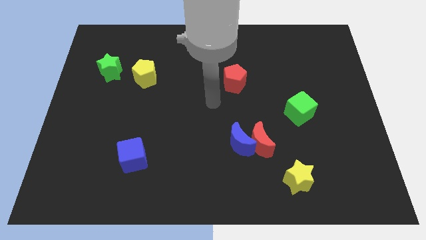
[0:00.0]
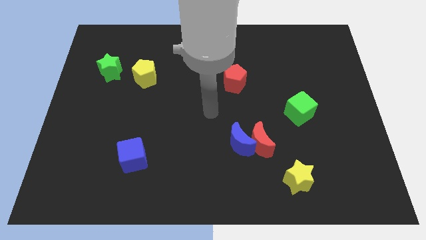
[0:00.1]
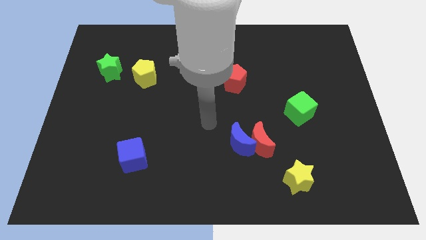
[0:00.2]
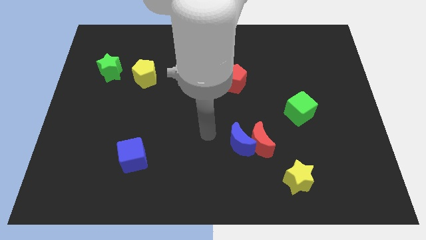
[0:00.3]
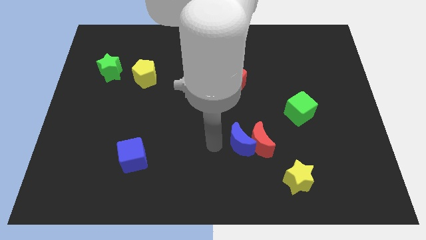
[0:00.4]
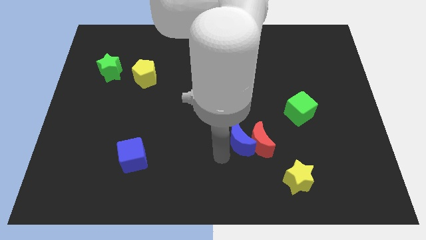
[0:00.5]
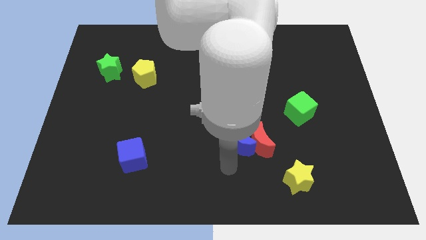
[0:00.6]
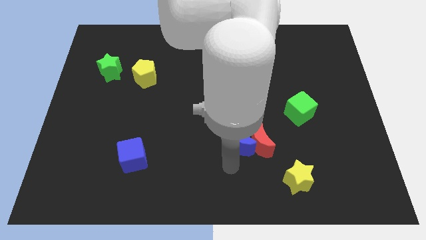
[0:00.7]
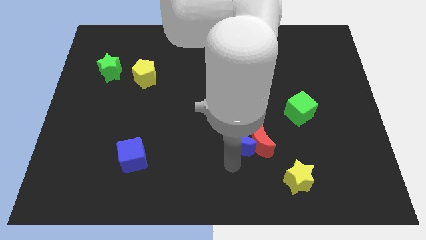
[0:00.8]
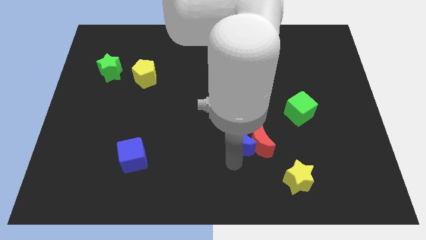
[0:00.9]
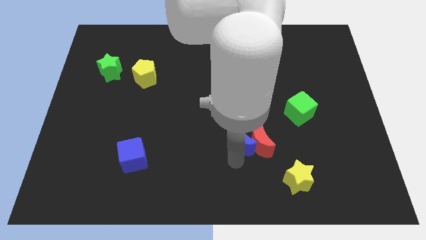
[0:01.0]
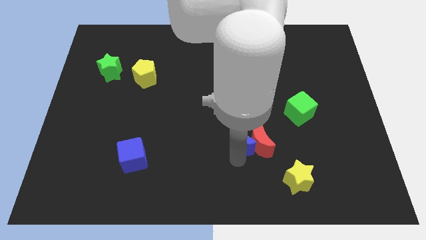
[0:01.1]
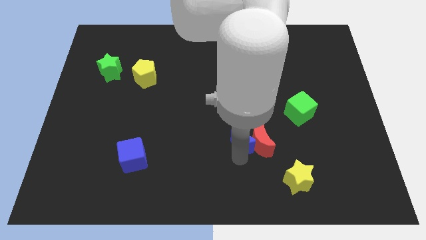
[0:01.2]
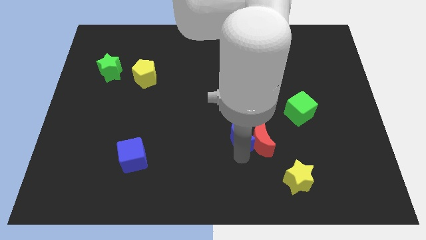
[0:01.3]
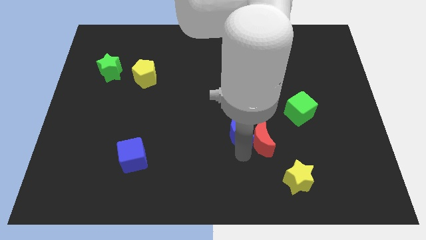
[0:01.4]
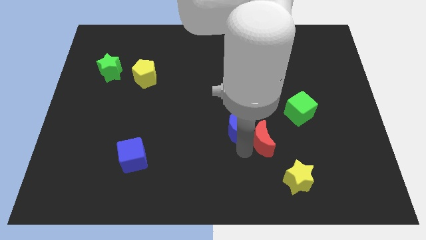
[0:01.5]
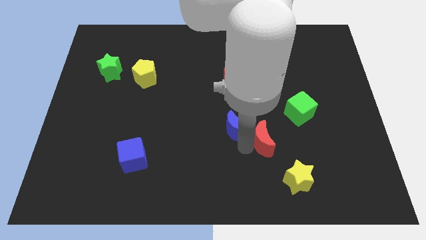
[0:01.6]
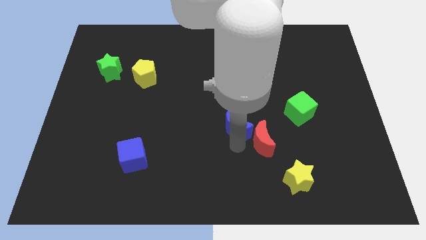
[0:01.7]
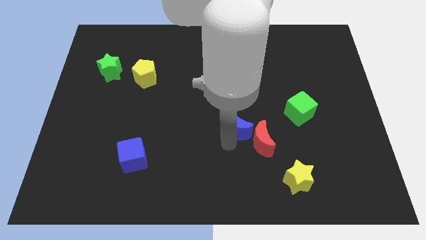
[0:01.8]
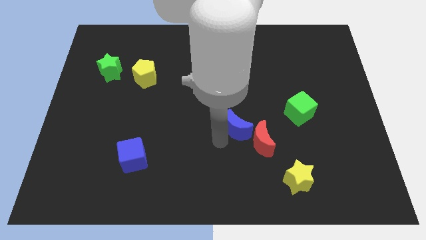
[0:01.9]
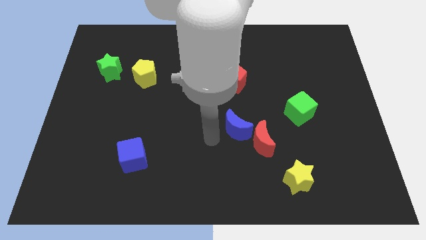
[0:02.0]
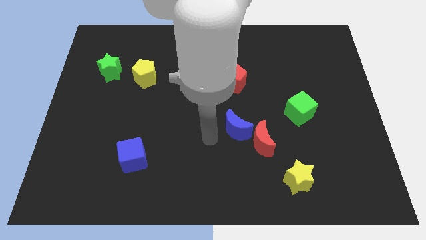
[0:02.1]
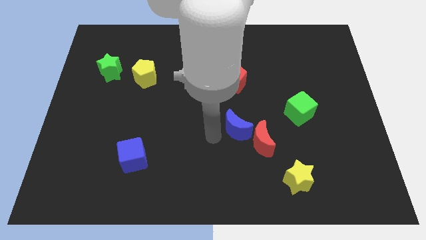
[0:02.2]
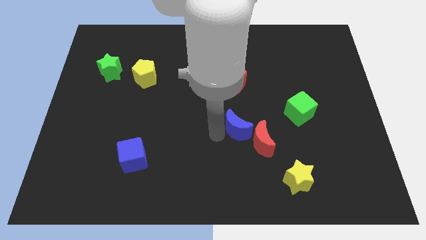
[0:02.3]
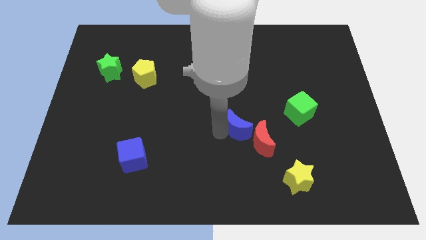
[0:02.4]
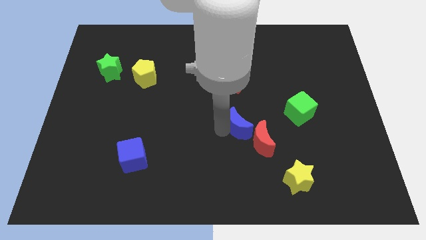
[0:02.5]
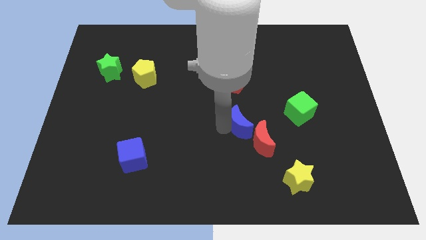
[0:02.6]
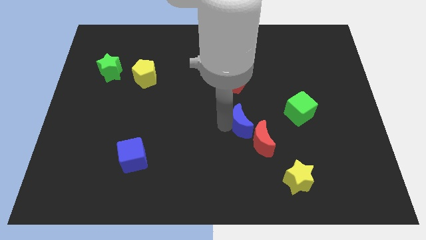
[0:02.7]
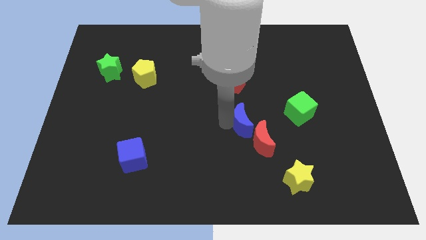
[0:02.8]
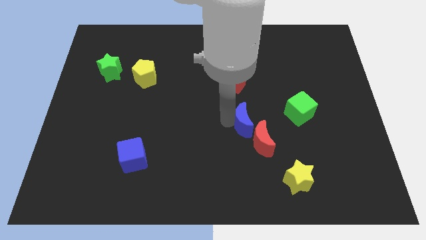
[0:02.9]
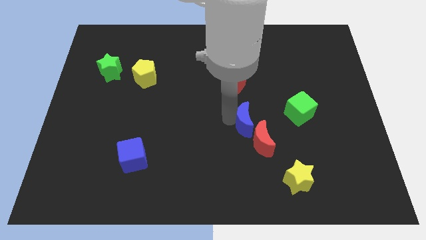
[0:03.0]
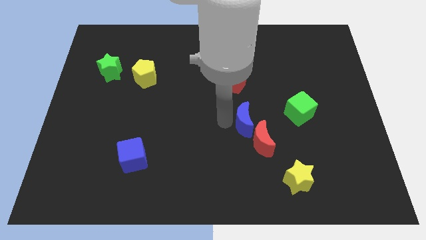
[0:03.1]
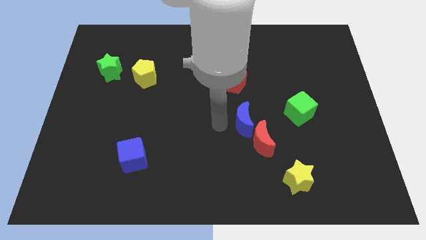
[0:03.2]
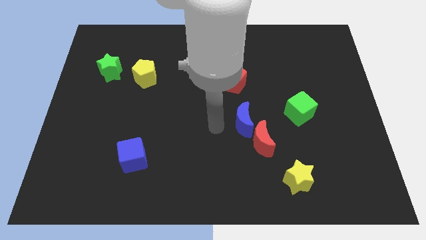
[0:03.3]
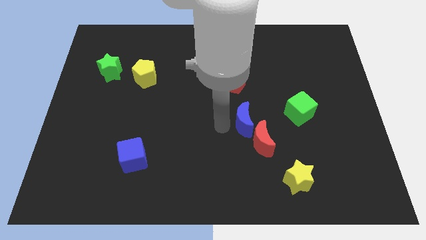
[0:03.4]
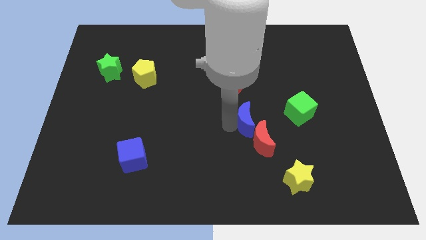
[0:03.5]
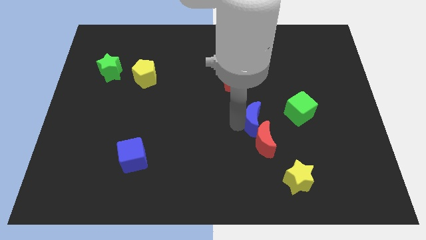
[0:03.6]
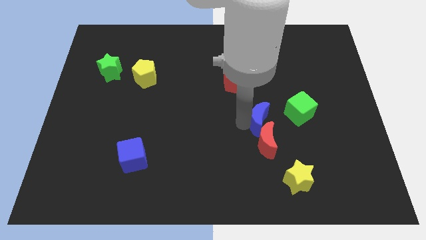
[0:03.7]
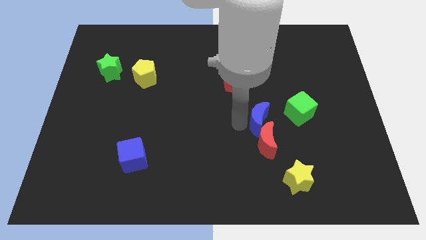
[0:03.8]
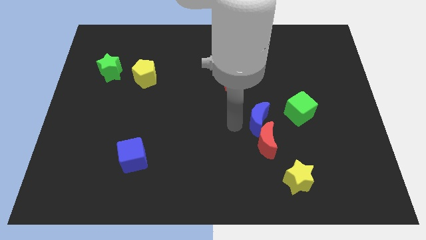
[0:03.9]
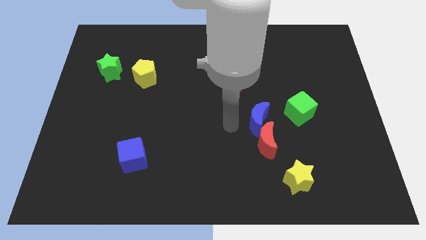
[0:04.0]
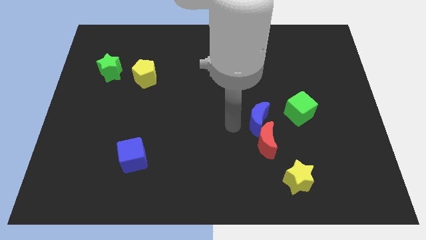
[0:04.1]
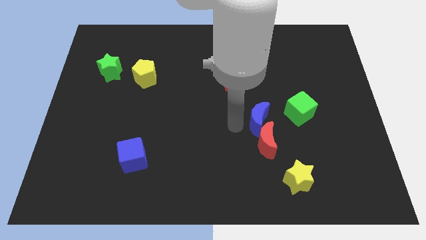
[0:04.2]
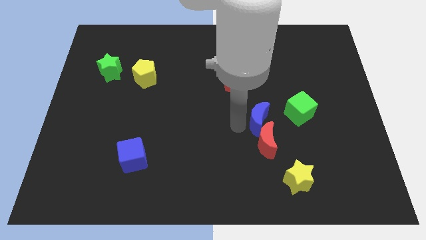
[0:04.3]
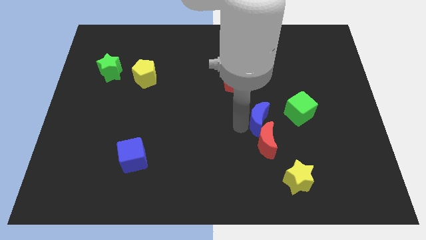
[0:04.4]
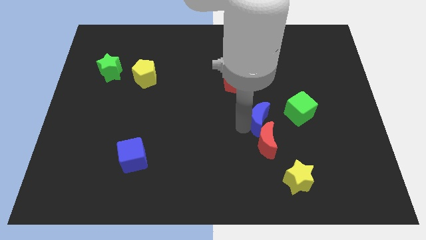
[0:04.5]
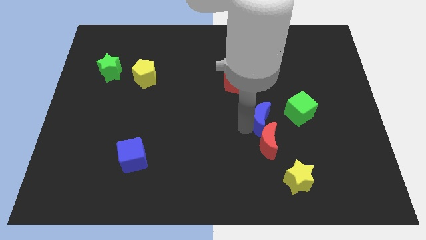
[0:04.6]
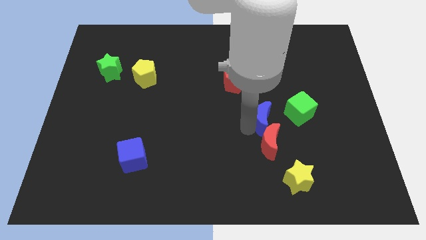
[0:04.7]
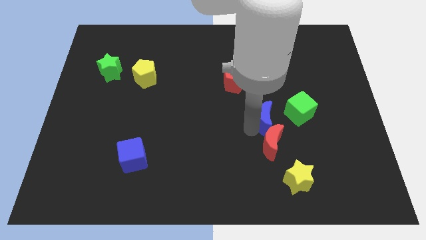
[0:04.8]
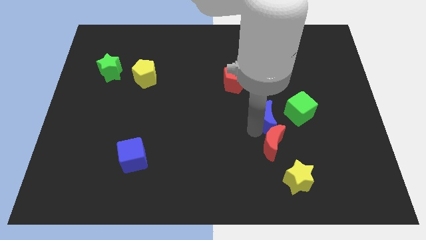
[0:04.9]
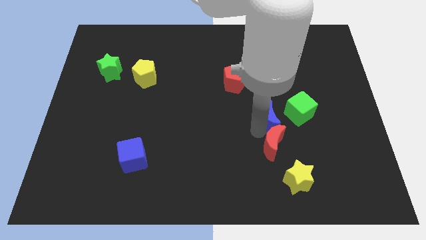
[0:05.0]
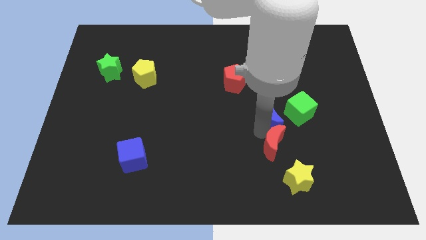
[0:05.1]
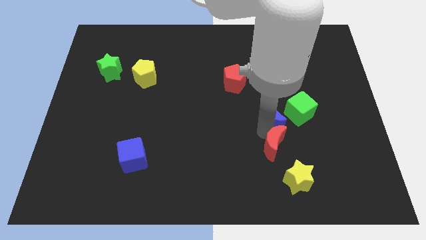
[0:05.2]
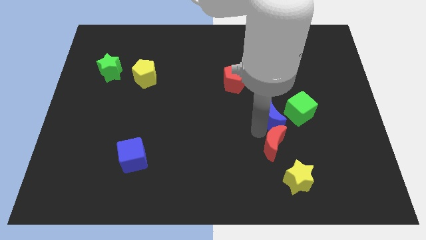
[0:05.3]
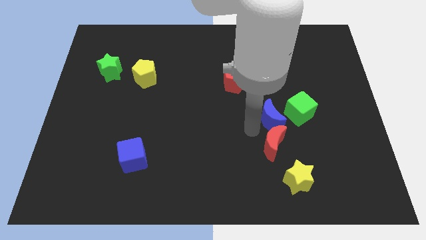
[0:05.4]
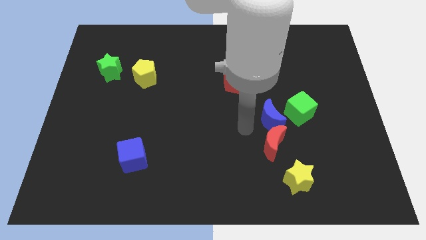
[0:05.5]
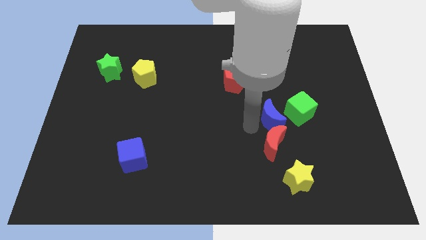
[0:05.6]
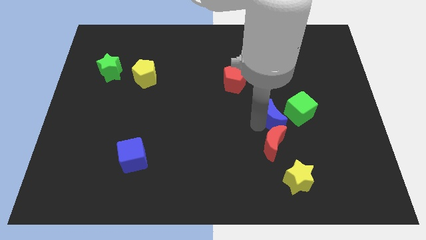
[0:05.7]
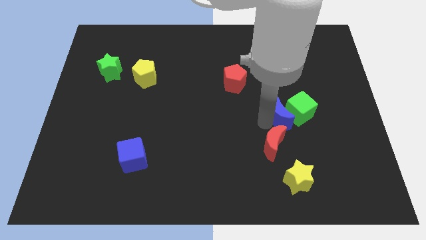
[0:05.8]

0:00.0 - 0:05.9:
slide the blue moon to the green cube

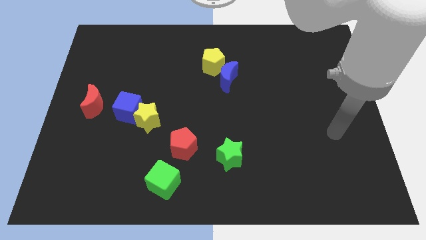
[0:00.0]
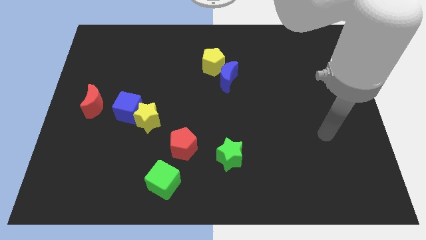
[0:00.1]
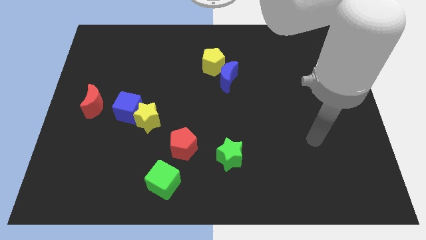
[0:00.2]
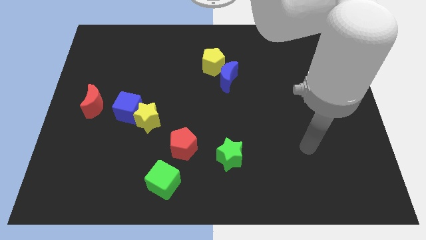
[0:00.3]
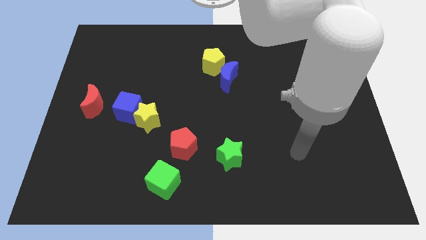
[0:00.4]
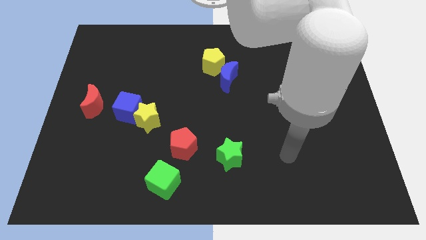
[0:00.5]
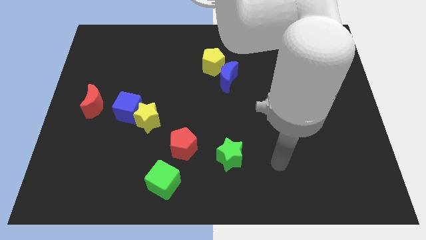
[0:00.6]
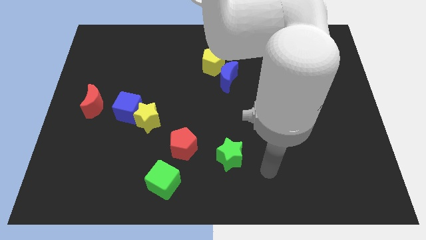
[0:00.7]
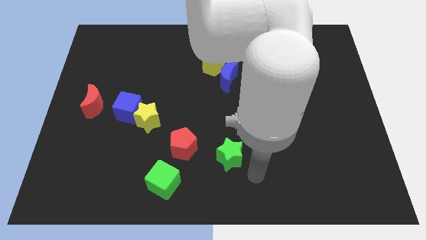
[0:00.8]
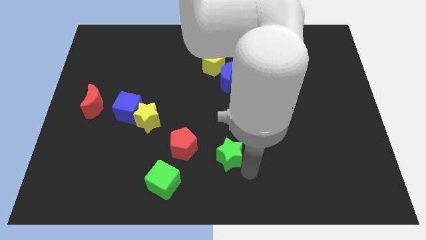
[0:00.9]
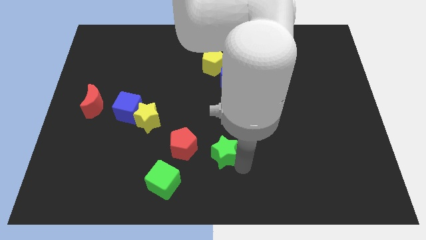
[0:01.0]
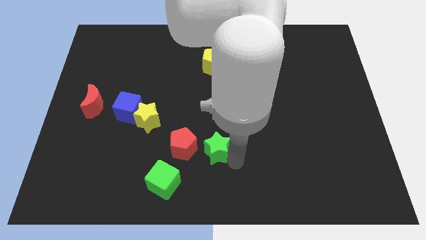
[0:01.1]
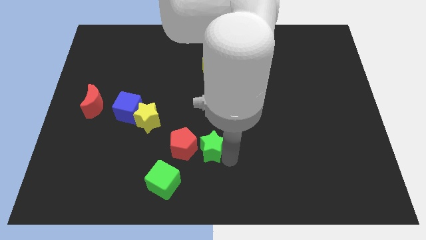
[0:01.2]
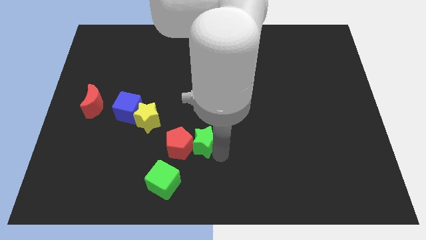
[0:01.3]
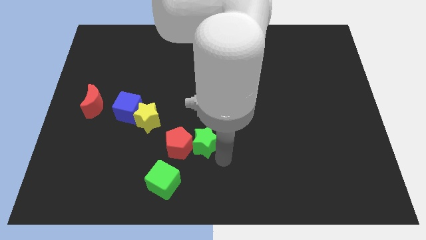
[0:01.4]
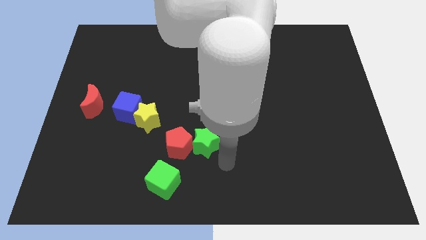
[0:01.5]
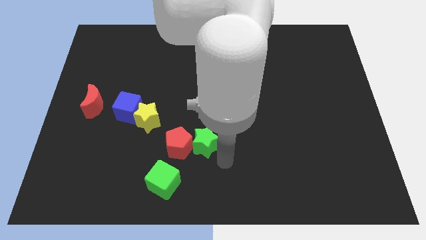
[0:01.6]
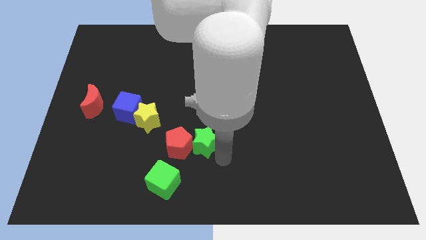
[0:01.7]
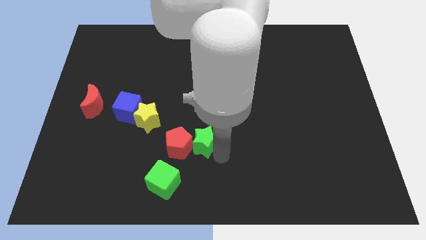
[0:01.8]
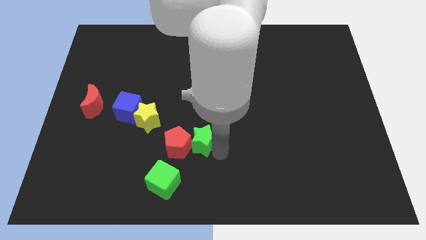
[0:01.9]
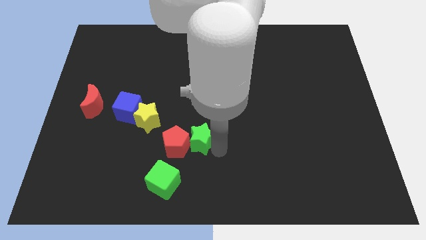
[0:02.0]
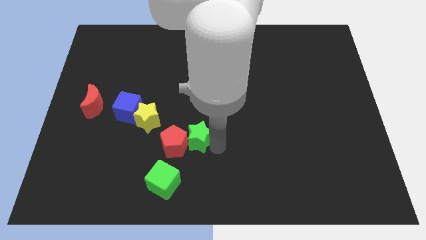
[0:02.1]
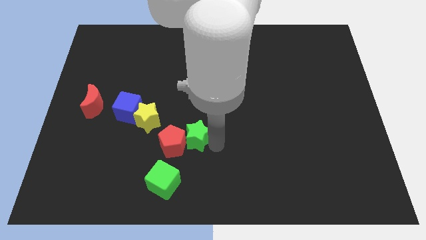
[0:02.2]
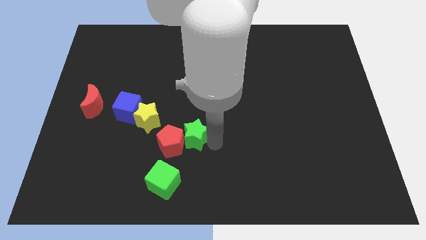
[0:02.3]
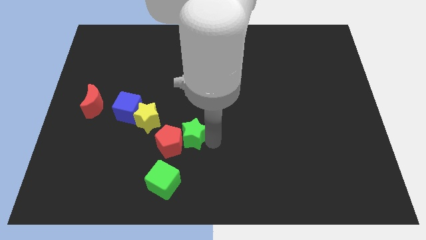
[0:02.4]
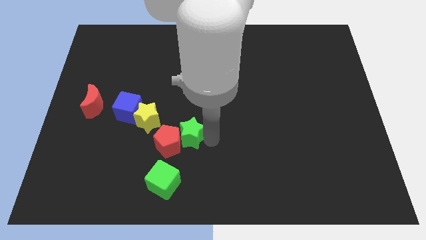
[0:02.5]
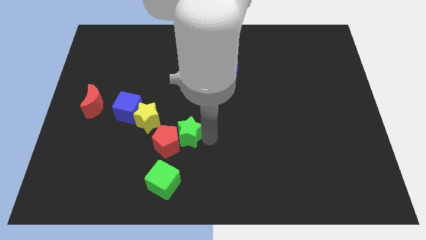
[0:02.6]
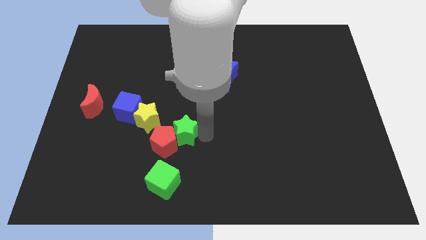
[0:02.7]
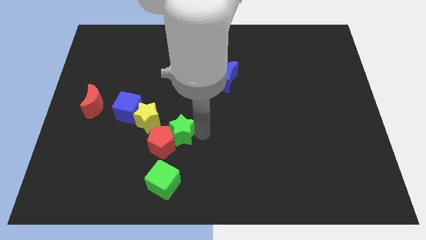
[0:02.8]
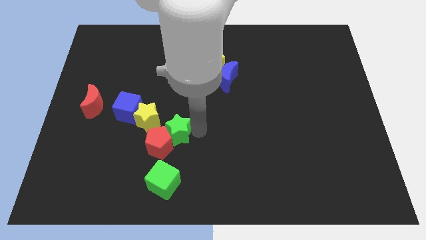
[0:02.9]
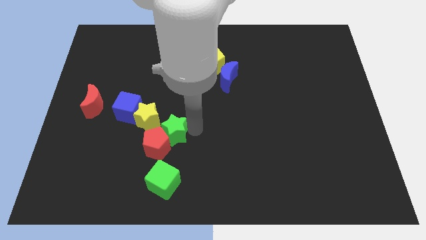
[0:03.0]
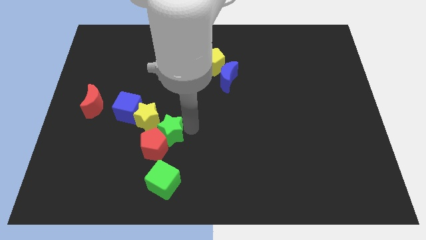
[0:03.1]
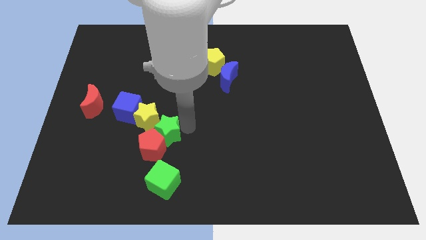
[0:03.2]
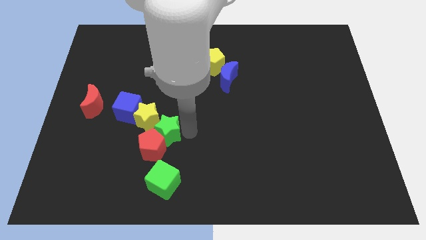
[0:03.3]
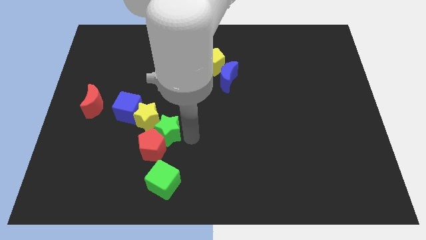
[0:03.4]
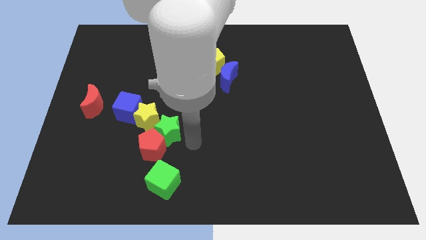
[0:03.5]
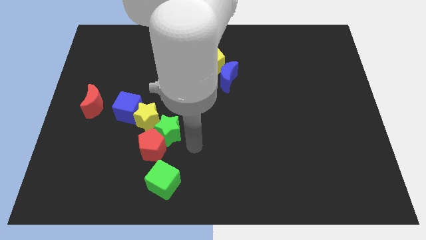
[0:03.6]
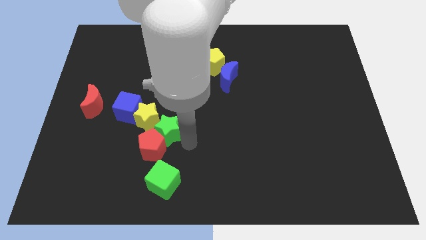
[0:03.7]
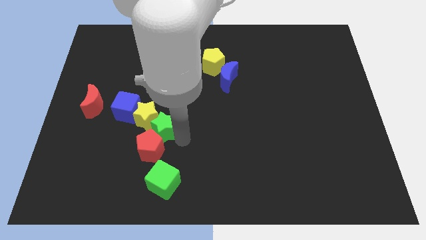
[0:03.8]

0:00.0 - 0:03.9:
move the green star towards the yellow star
